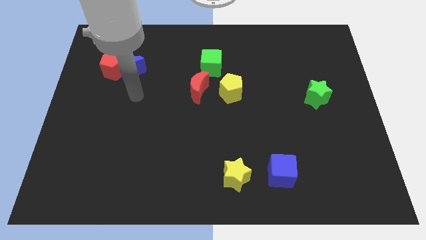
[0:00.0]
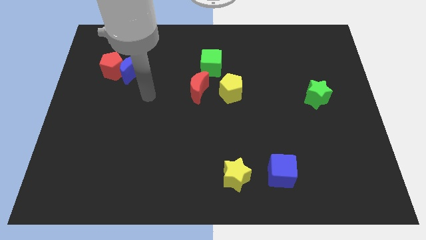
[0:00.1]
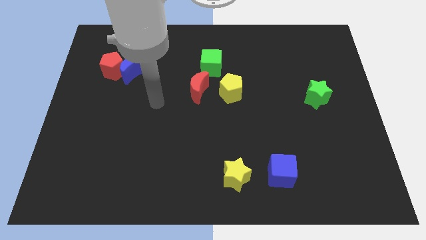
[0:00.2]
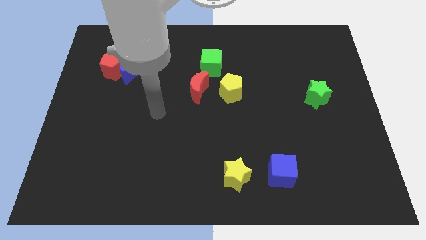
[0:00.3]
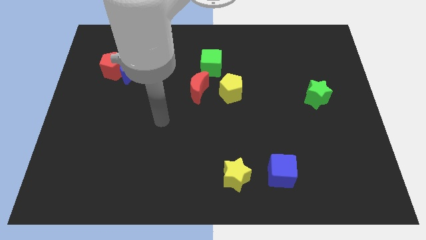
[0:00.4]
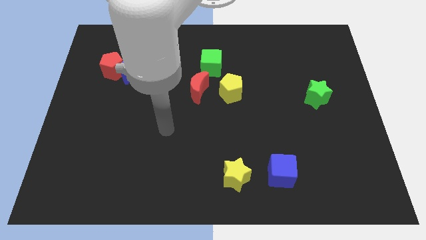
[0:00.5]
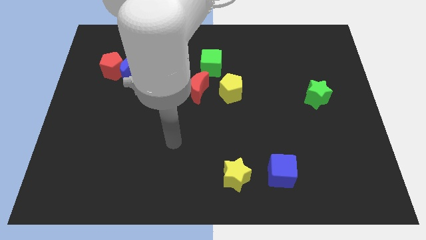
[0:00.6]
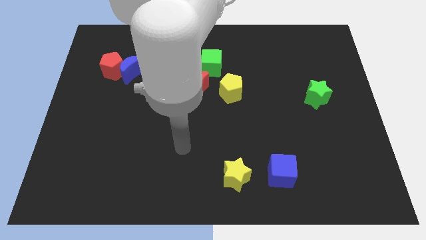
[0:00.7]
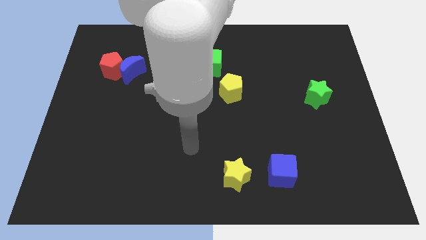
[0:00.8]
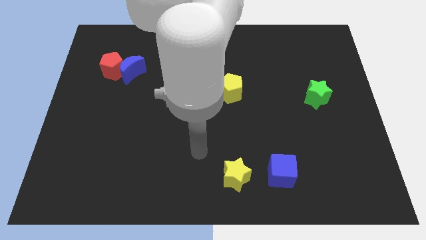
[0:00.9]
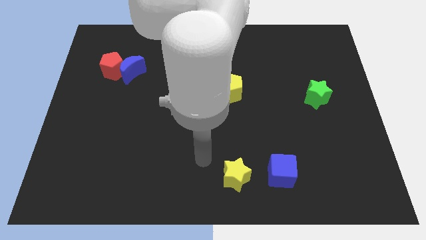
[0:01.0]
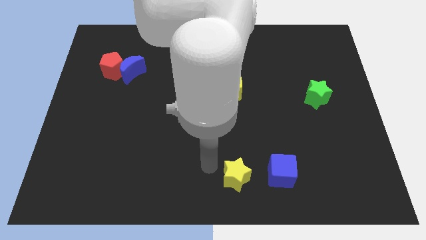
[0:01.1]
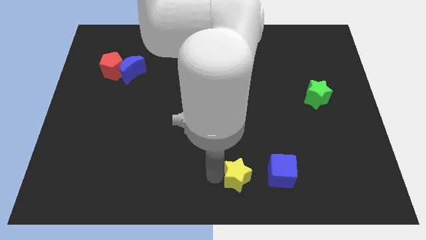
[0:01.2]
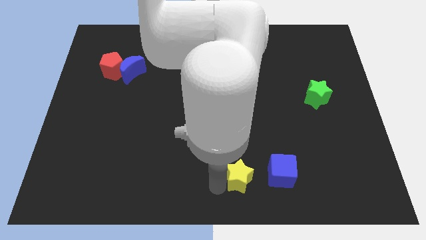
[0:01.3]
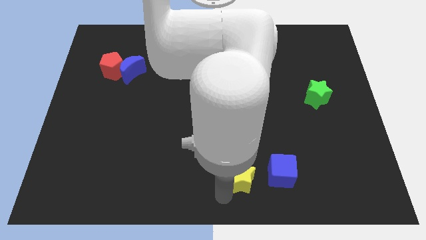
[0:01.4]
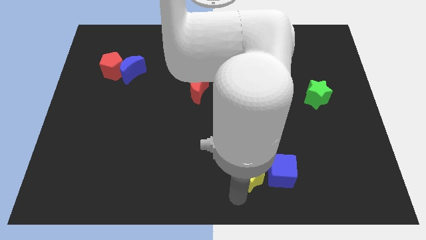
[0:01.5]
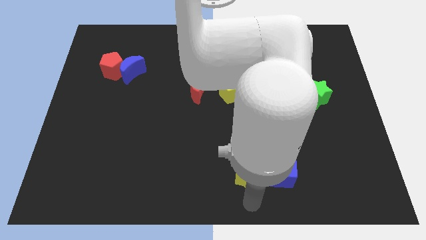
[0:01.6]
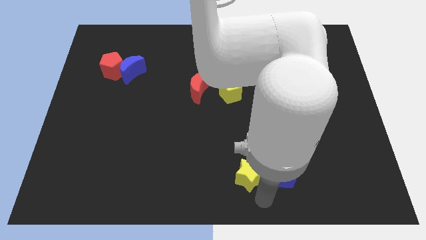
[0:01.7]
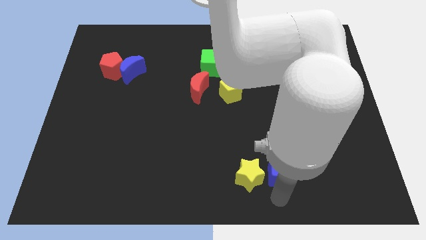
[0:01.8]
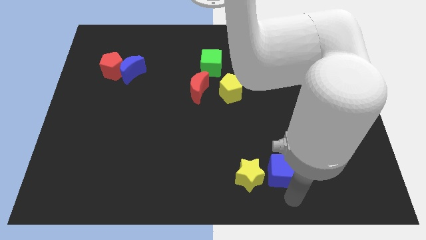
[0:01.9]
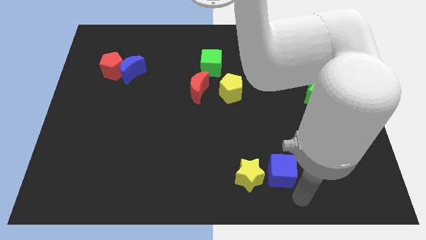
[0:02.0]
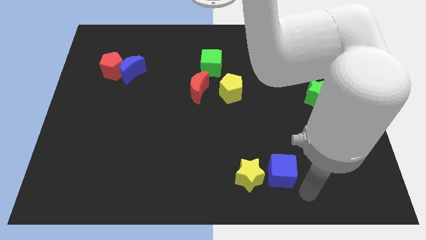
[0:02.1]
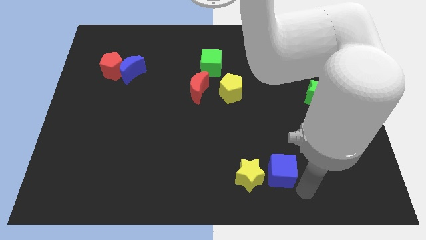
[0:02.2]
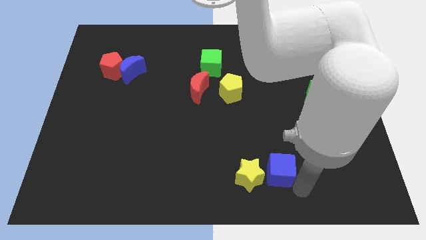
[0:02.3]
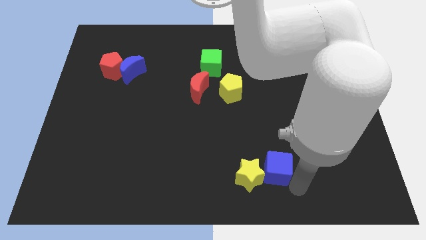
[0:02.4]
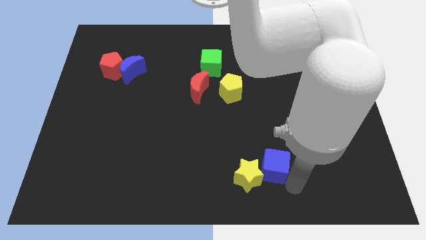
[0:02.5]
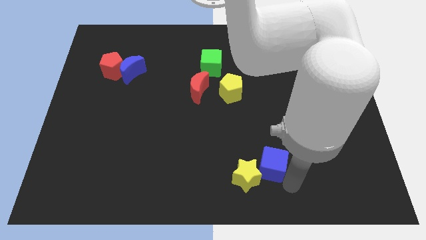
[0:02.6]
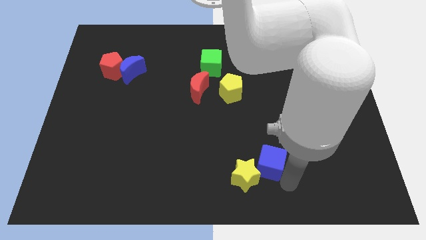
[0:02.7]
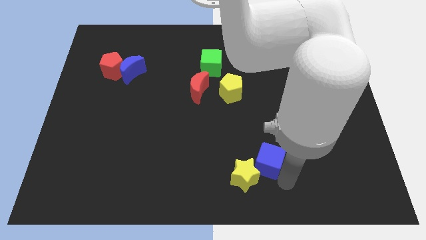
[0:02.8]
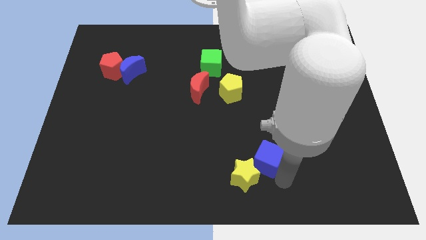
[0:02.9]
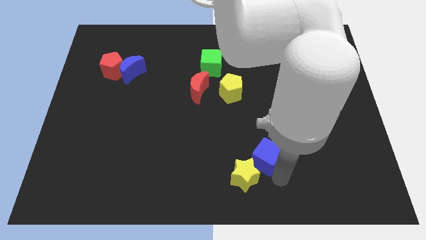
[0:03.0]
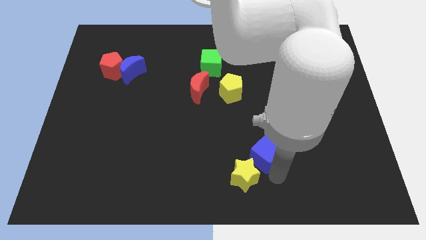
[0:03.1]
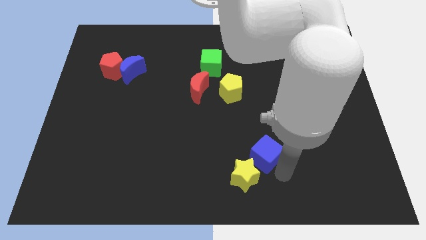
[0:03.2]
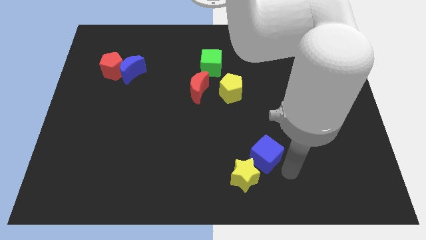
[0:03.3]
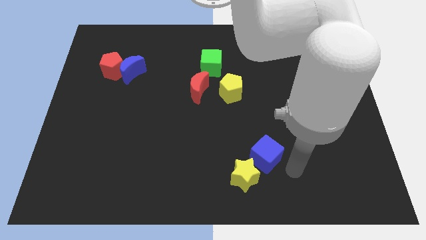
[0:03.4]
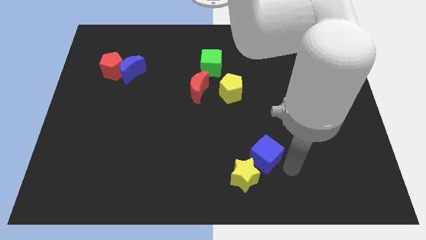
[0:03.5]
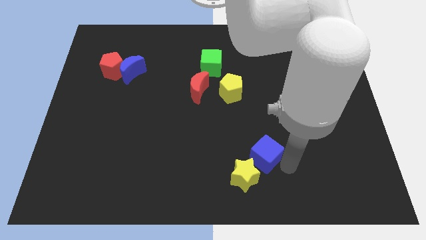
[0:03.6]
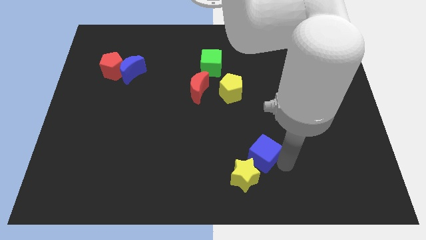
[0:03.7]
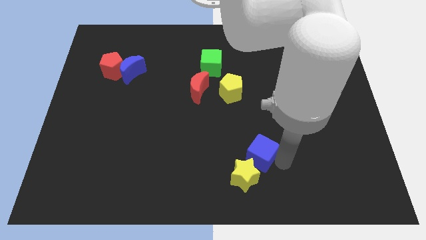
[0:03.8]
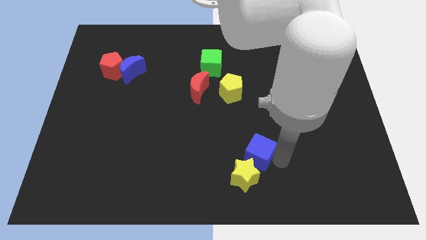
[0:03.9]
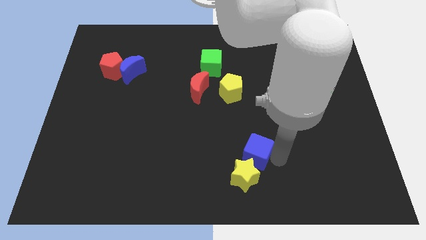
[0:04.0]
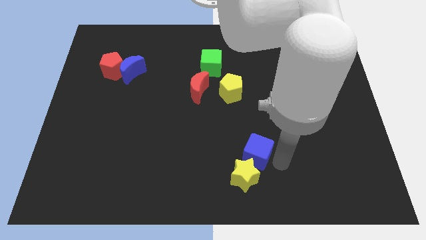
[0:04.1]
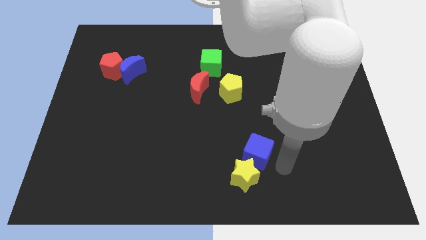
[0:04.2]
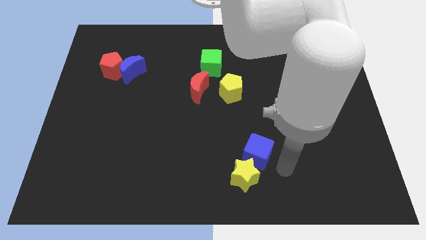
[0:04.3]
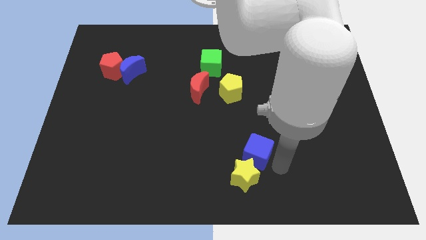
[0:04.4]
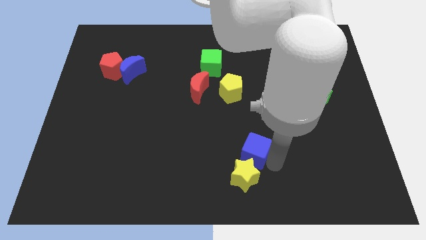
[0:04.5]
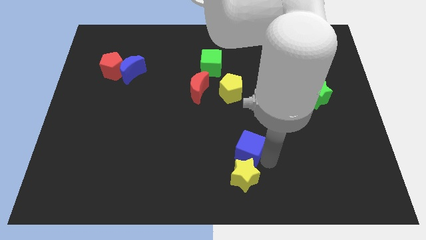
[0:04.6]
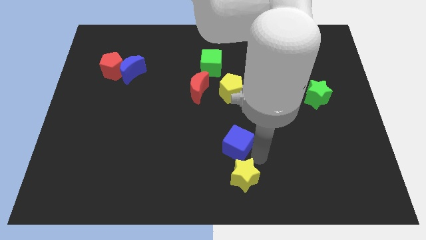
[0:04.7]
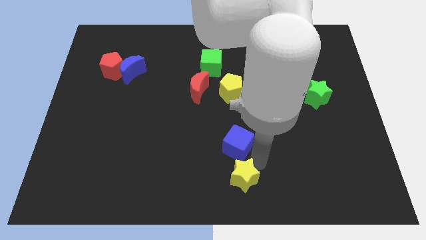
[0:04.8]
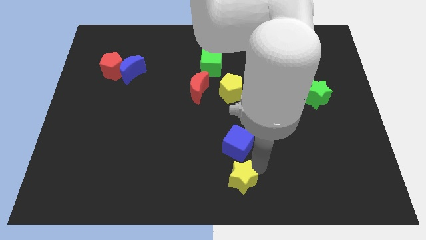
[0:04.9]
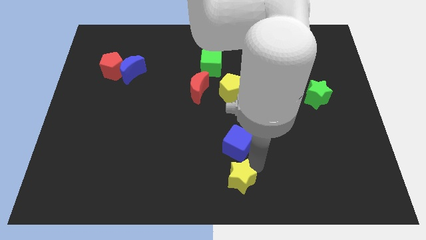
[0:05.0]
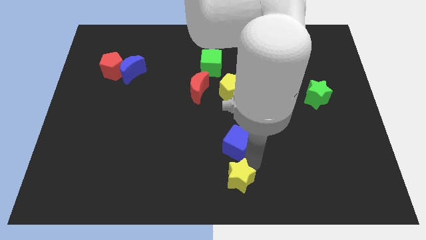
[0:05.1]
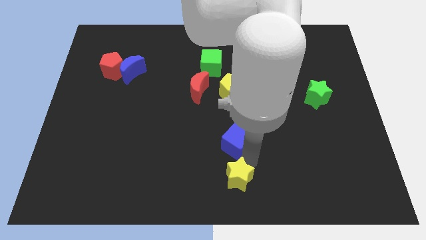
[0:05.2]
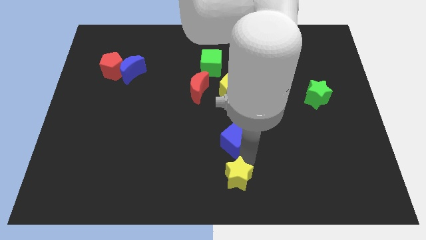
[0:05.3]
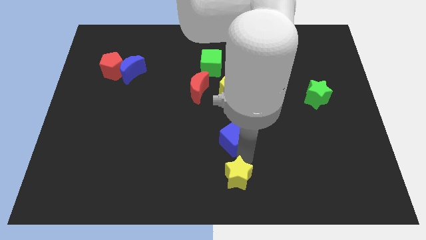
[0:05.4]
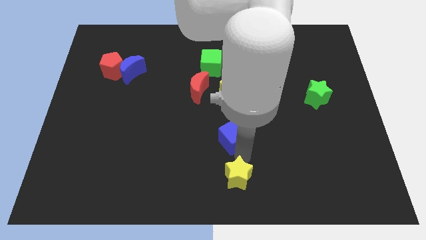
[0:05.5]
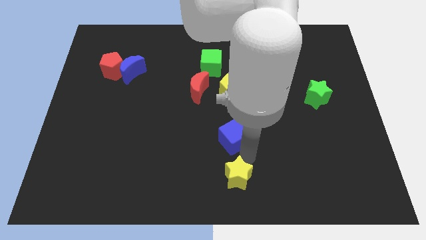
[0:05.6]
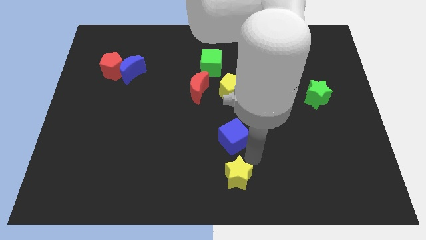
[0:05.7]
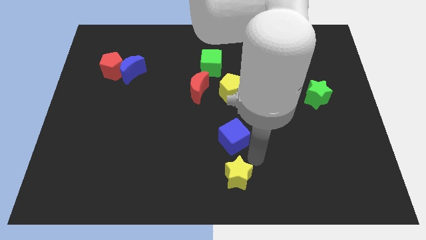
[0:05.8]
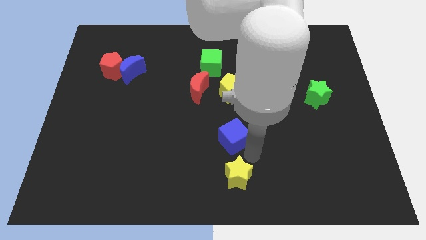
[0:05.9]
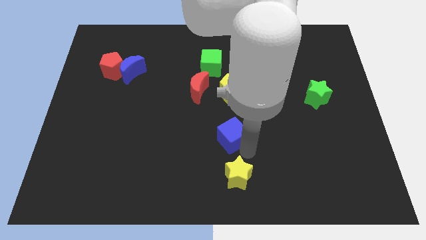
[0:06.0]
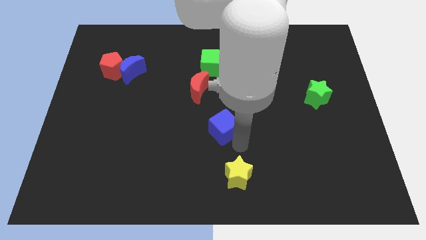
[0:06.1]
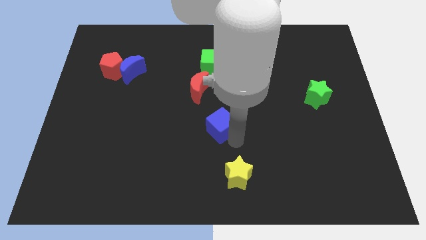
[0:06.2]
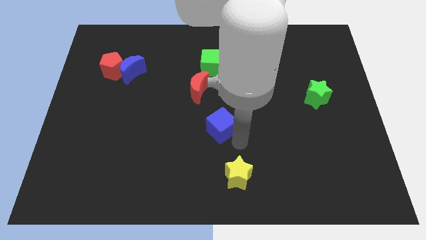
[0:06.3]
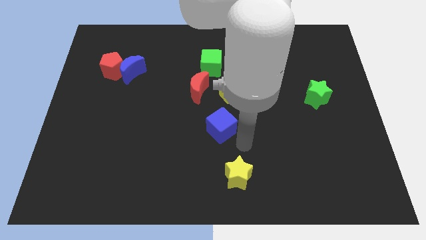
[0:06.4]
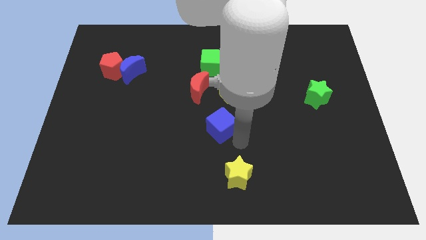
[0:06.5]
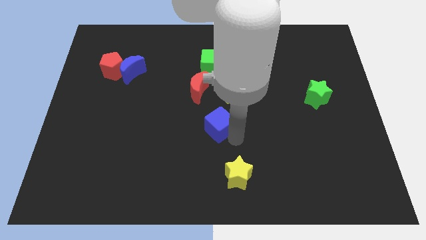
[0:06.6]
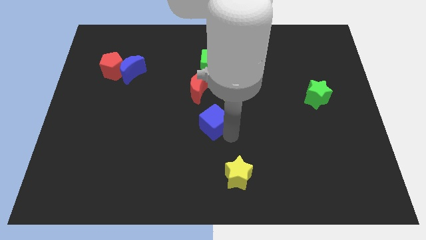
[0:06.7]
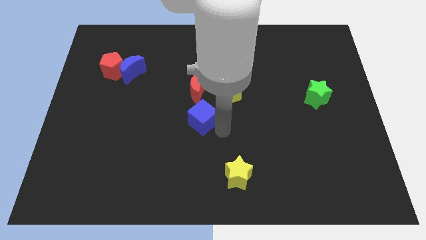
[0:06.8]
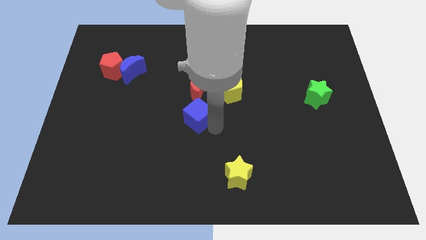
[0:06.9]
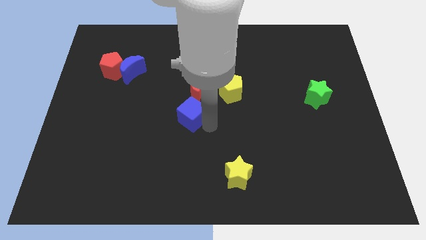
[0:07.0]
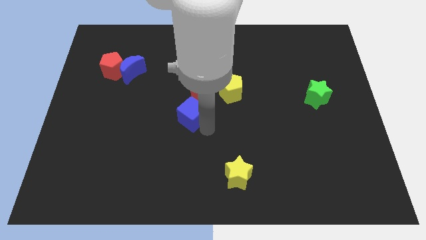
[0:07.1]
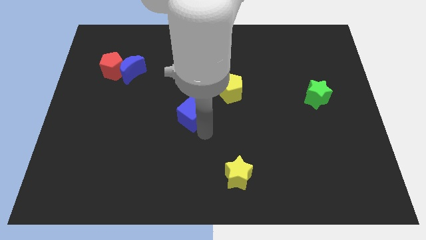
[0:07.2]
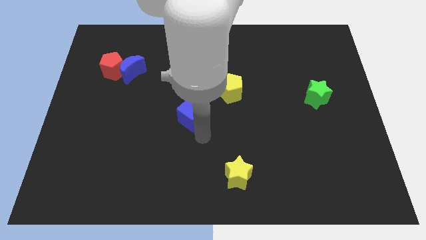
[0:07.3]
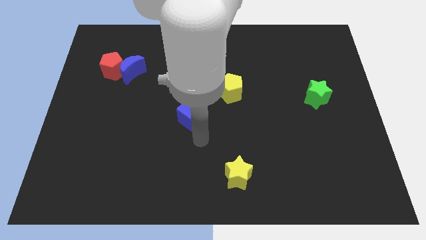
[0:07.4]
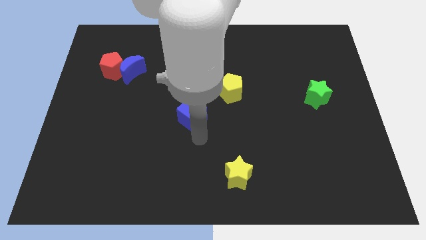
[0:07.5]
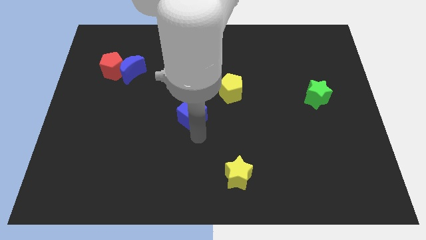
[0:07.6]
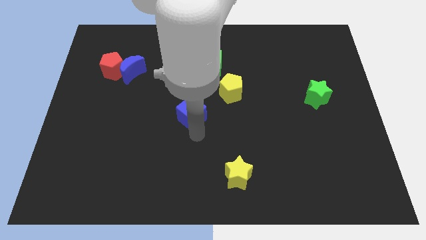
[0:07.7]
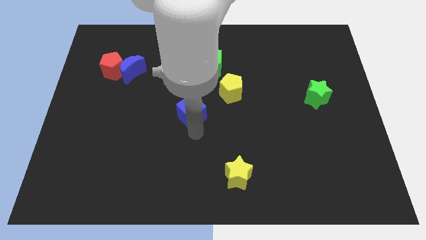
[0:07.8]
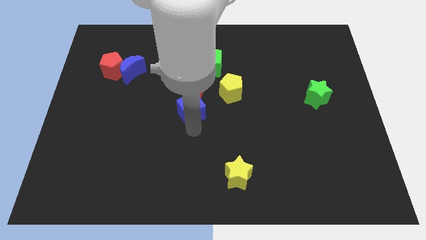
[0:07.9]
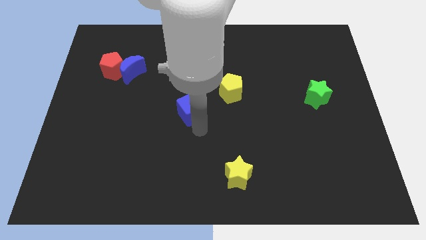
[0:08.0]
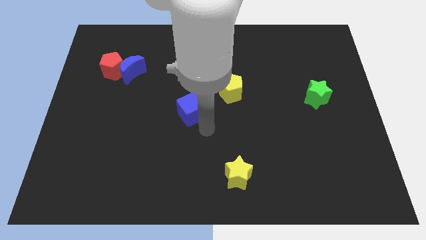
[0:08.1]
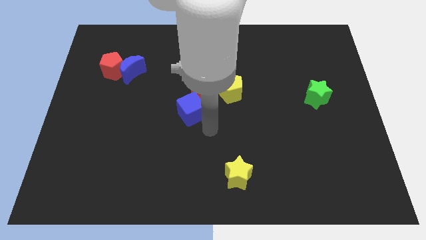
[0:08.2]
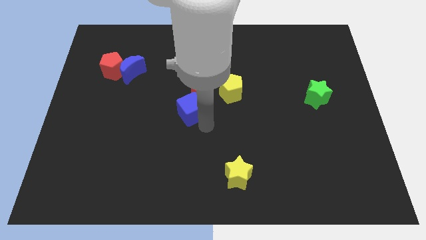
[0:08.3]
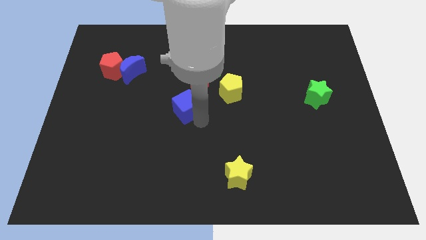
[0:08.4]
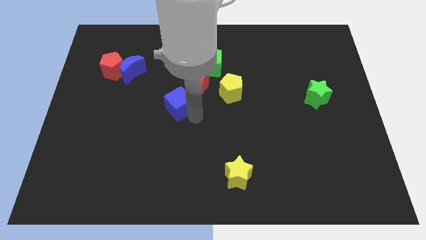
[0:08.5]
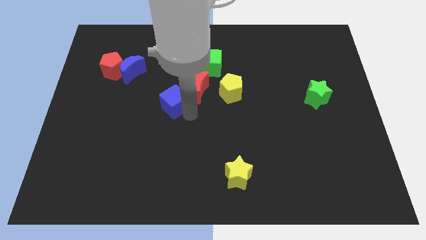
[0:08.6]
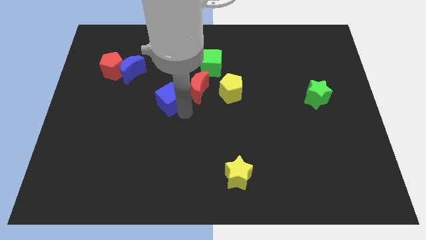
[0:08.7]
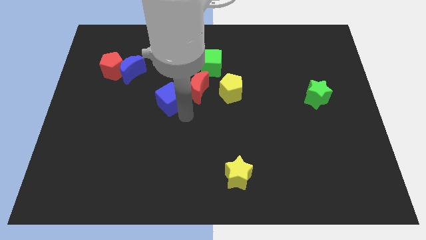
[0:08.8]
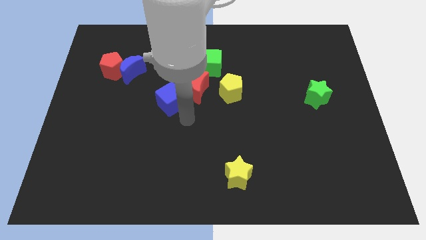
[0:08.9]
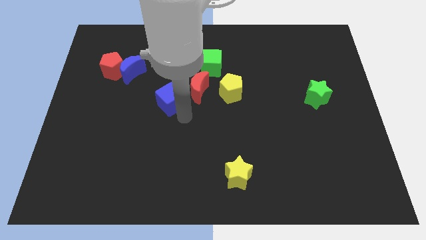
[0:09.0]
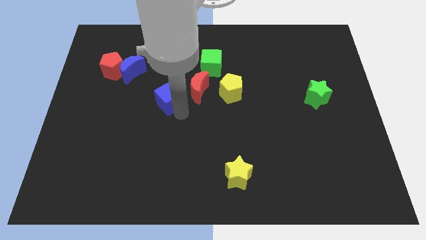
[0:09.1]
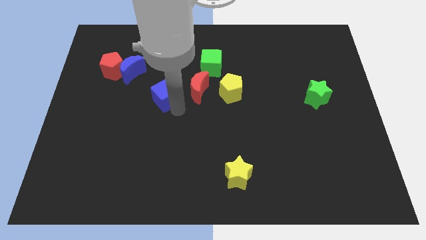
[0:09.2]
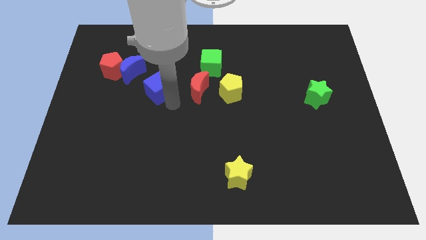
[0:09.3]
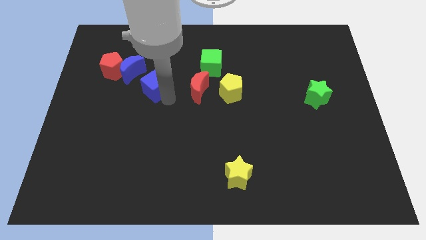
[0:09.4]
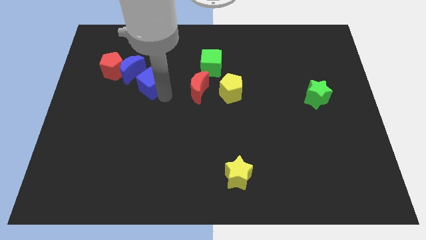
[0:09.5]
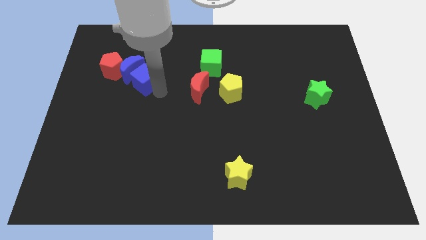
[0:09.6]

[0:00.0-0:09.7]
push the blue cube next to the blue moon
